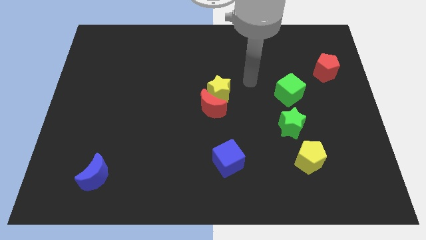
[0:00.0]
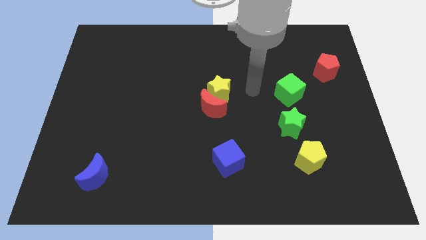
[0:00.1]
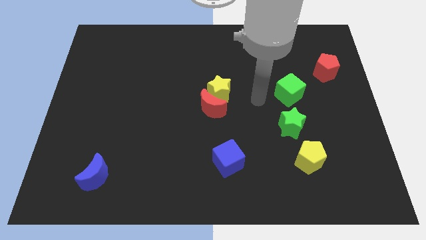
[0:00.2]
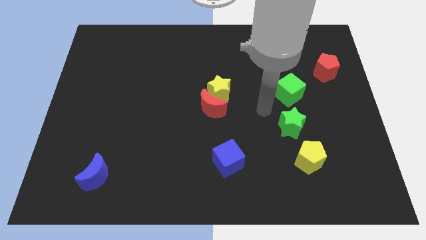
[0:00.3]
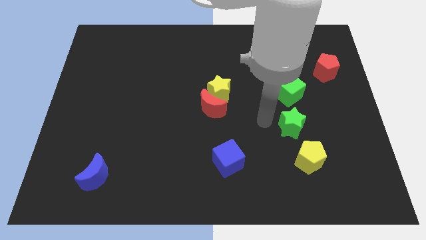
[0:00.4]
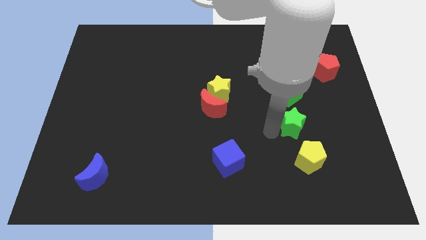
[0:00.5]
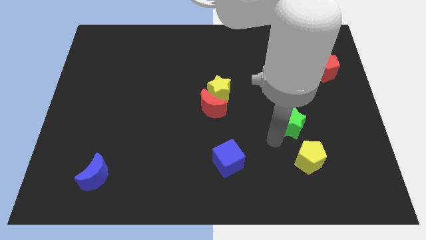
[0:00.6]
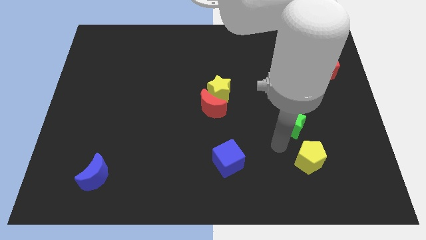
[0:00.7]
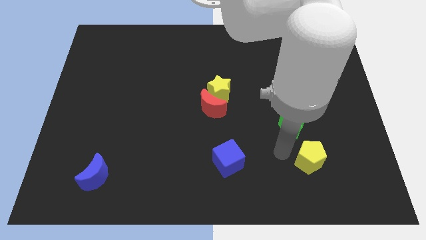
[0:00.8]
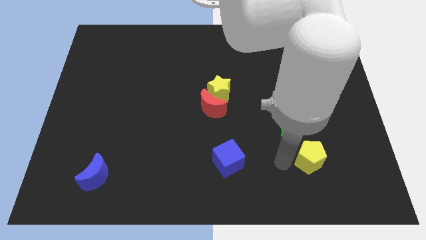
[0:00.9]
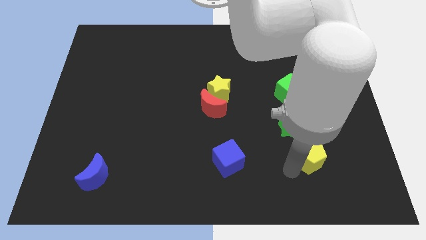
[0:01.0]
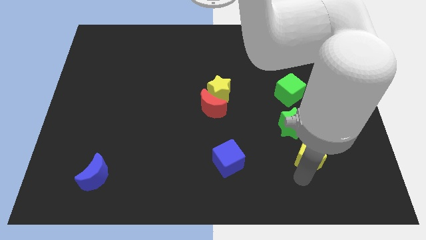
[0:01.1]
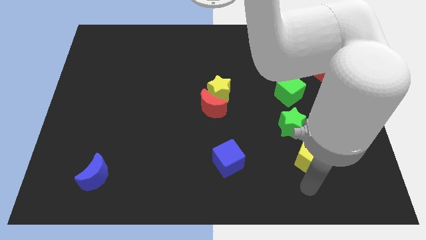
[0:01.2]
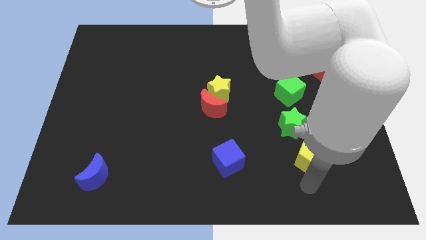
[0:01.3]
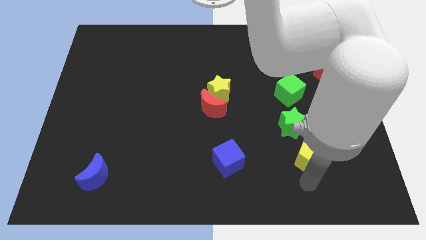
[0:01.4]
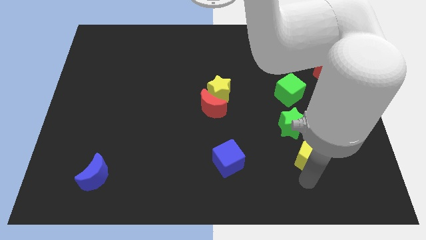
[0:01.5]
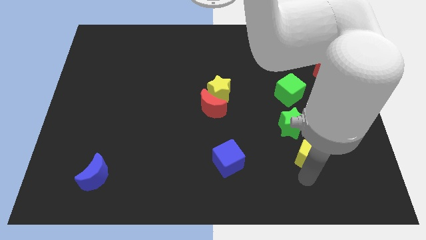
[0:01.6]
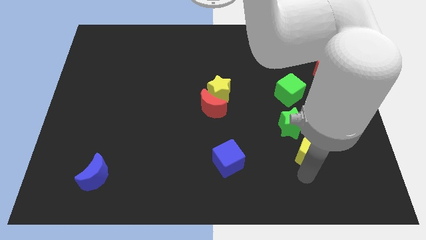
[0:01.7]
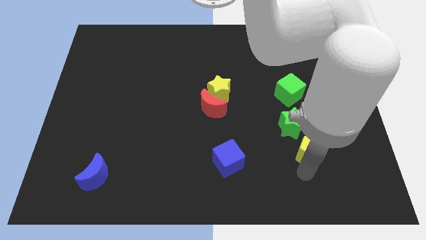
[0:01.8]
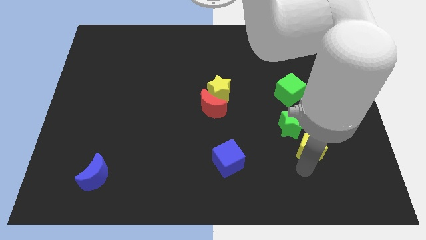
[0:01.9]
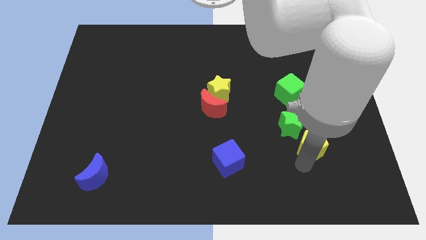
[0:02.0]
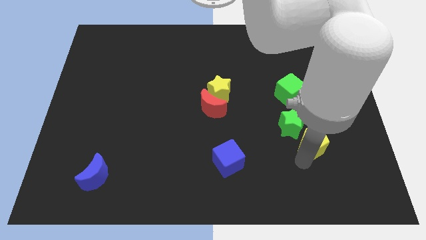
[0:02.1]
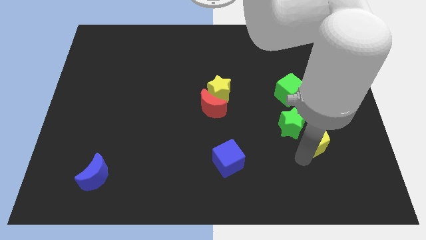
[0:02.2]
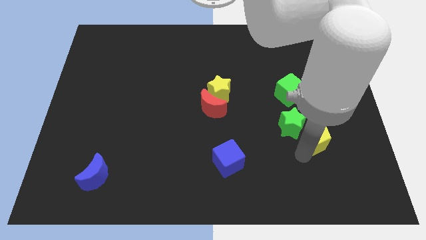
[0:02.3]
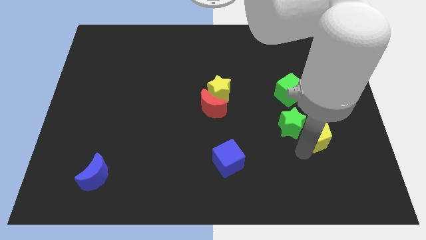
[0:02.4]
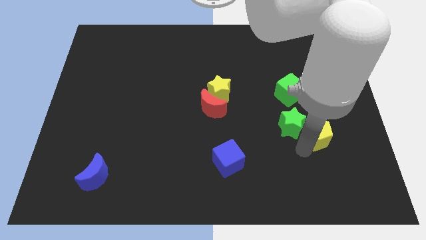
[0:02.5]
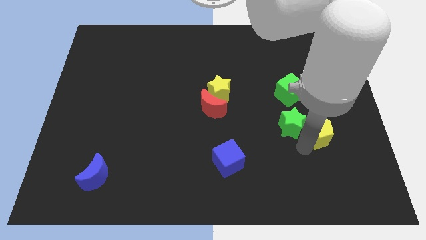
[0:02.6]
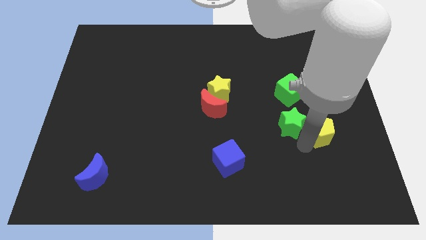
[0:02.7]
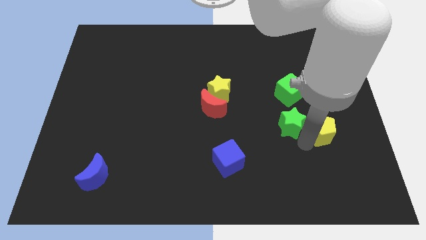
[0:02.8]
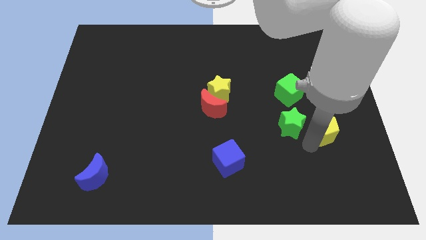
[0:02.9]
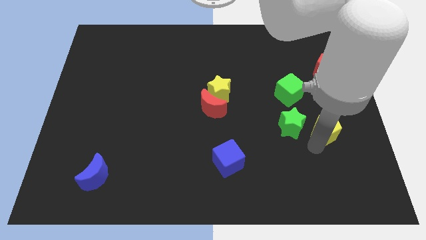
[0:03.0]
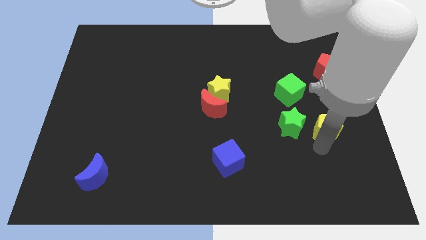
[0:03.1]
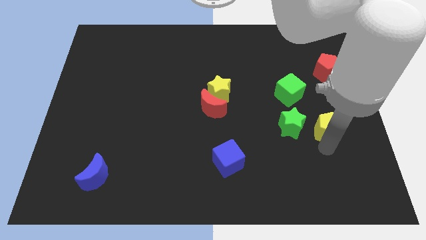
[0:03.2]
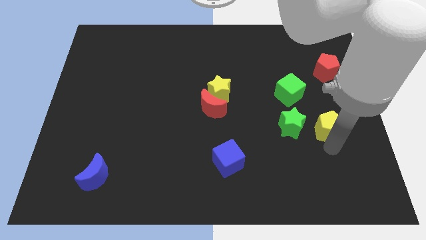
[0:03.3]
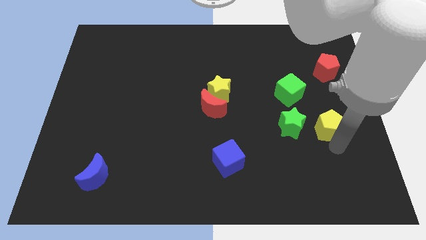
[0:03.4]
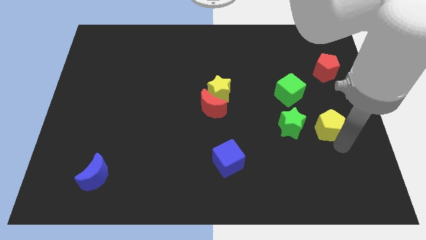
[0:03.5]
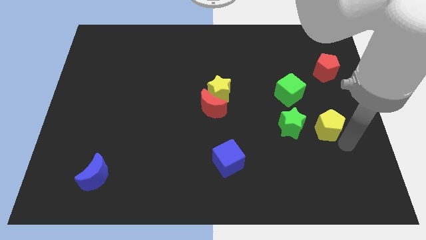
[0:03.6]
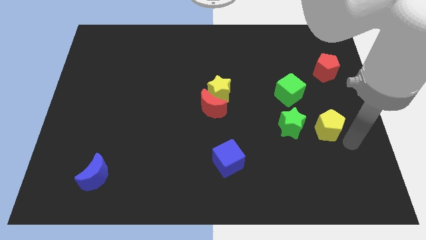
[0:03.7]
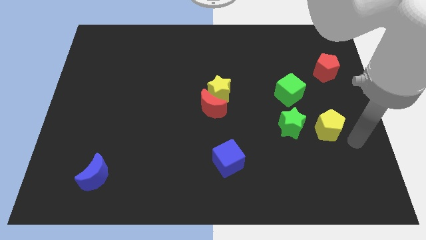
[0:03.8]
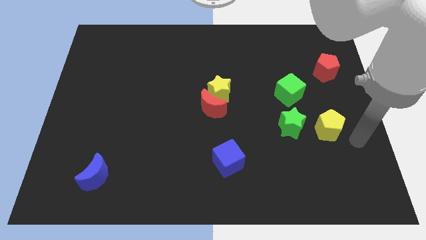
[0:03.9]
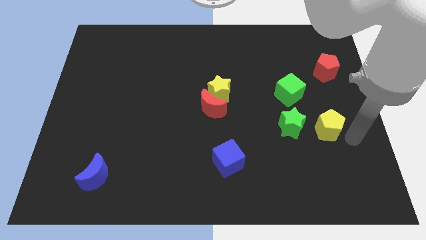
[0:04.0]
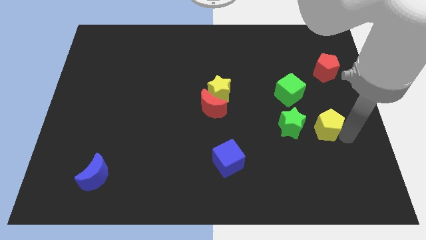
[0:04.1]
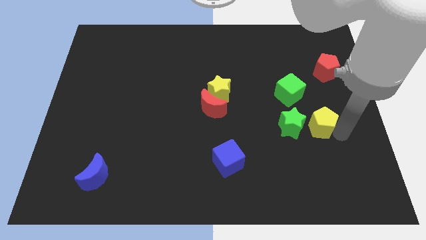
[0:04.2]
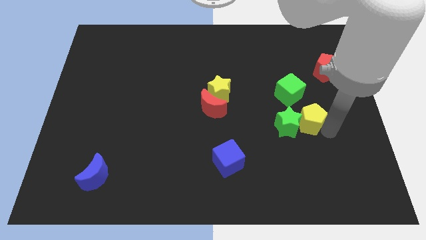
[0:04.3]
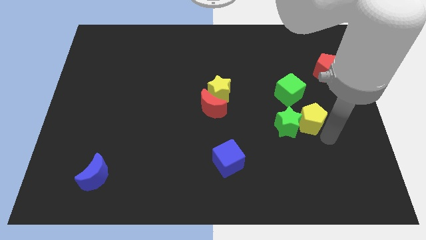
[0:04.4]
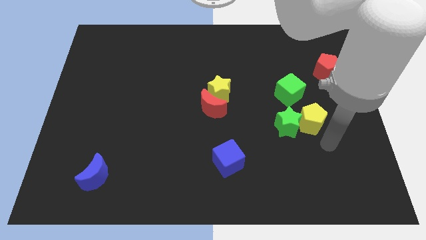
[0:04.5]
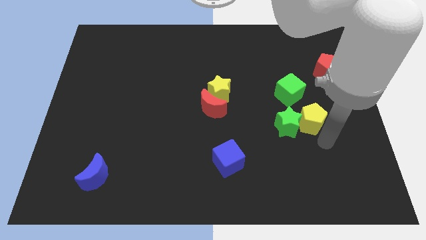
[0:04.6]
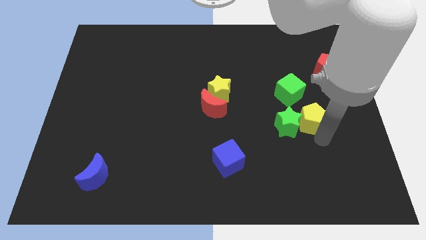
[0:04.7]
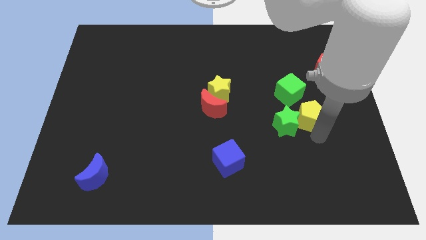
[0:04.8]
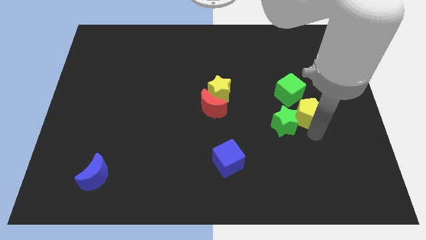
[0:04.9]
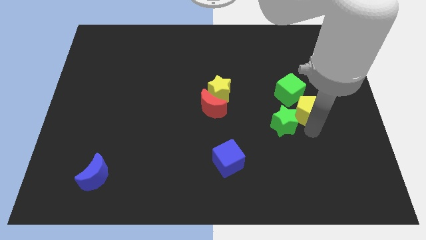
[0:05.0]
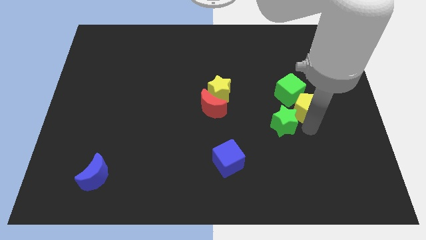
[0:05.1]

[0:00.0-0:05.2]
put the yellow pentagon next to the green cube

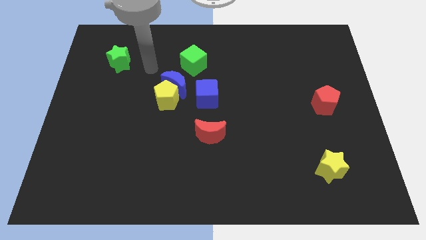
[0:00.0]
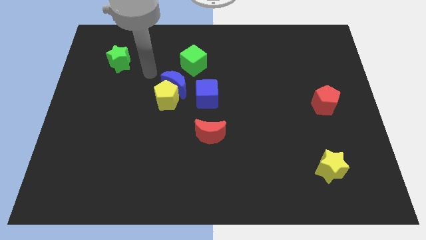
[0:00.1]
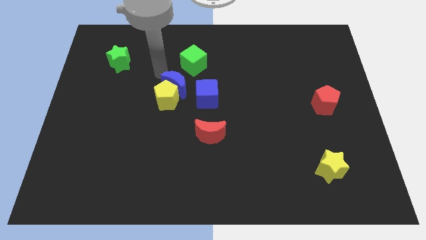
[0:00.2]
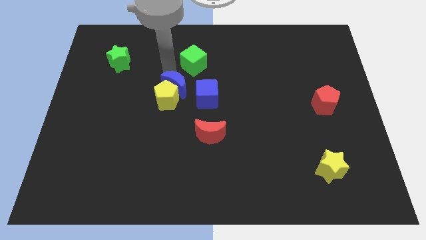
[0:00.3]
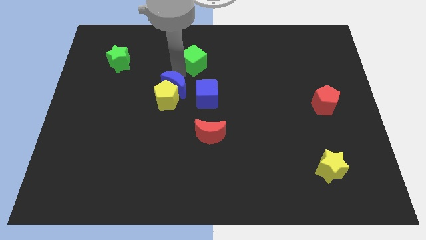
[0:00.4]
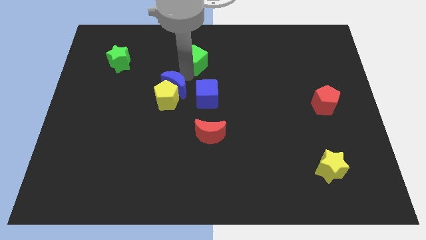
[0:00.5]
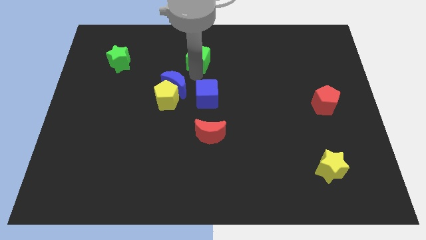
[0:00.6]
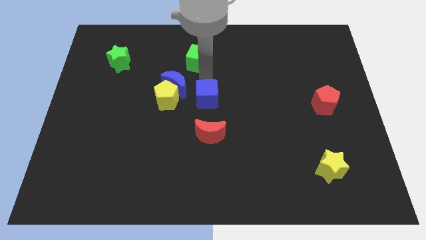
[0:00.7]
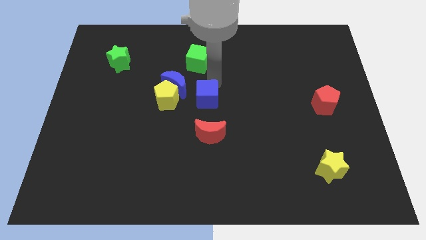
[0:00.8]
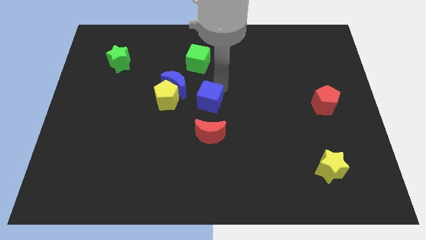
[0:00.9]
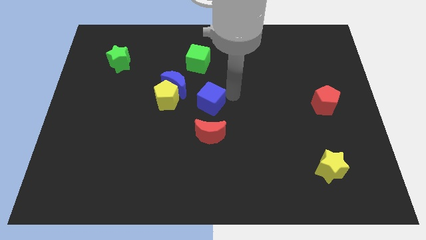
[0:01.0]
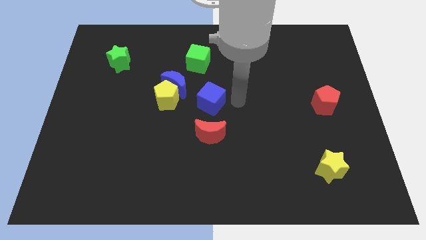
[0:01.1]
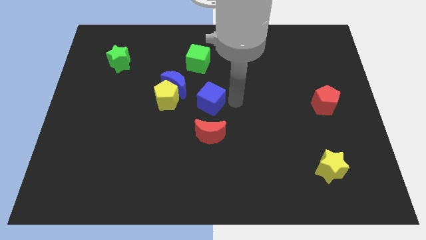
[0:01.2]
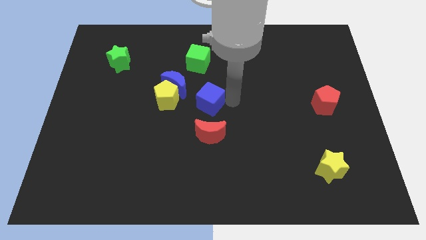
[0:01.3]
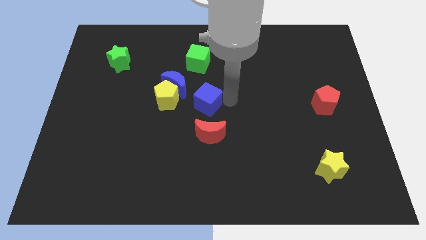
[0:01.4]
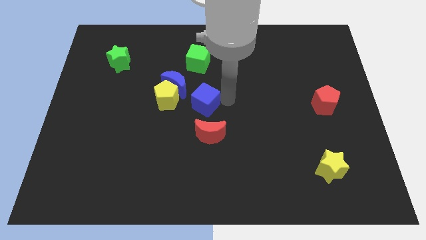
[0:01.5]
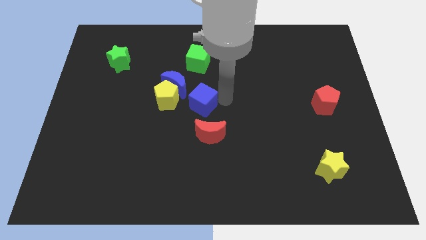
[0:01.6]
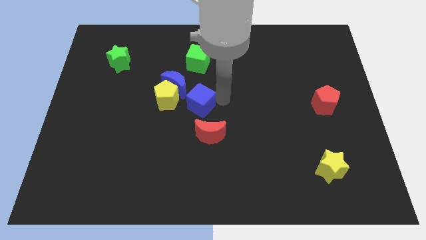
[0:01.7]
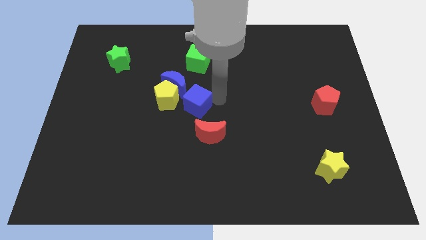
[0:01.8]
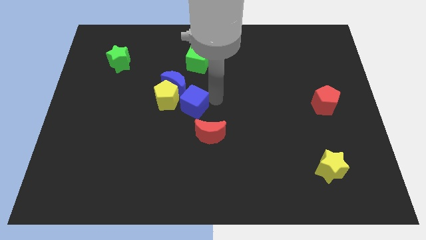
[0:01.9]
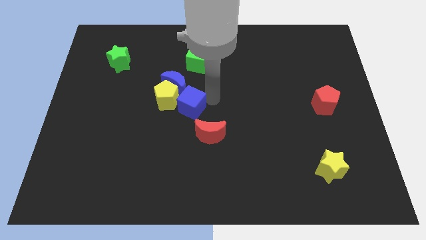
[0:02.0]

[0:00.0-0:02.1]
move the blue cube to the yellow pentagon

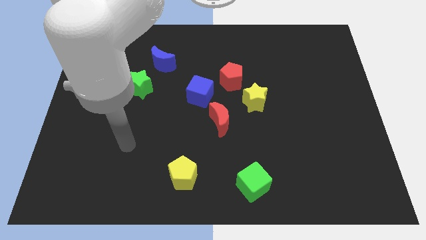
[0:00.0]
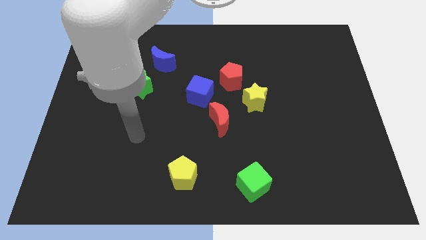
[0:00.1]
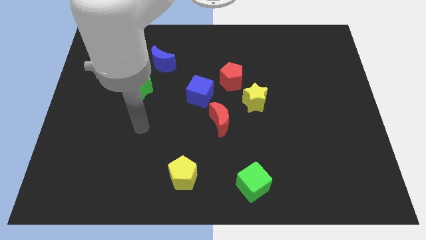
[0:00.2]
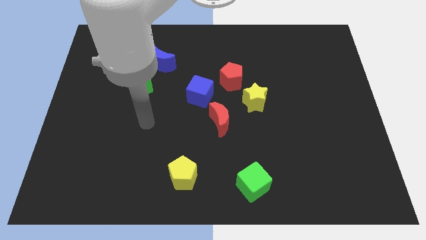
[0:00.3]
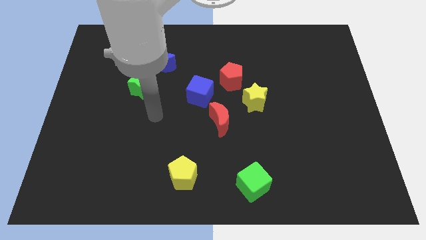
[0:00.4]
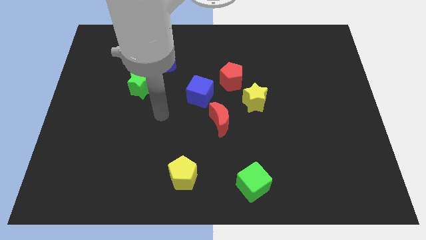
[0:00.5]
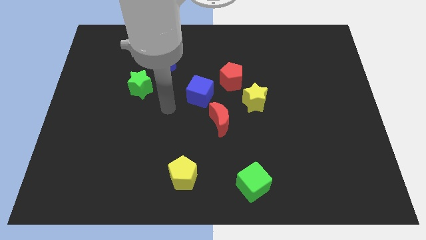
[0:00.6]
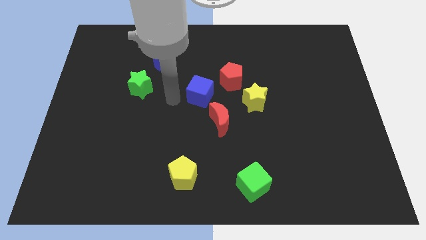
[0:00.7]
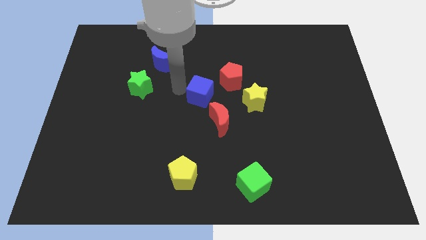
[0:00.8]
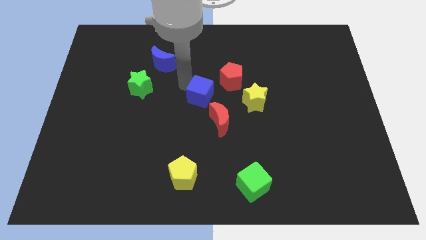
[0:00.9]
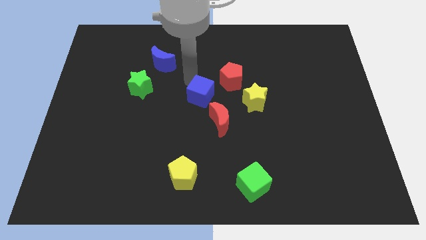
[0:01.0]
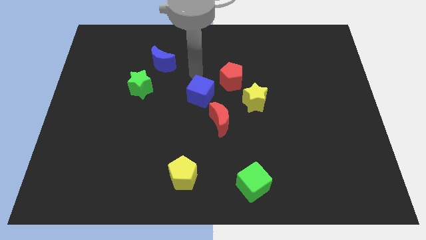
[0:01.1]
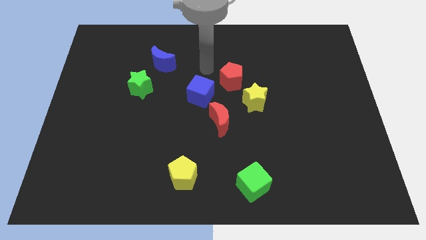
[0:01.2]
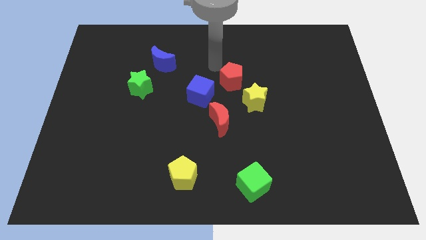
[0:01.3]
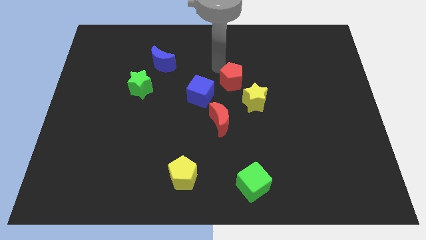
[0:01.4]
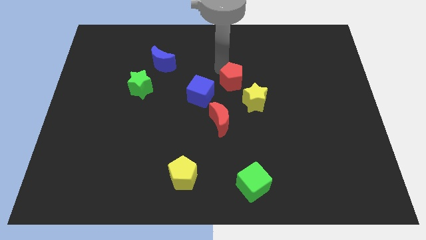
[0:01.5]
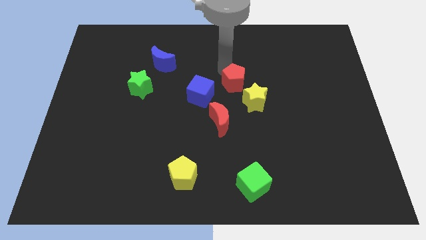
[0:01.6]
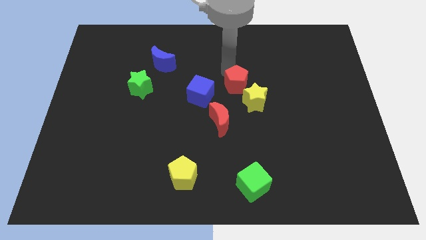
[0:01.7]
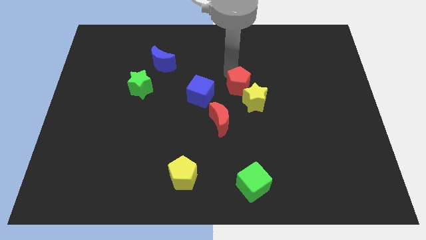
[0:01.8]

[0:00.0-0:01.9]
push the red pentagon next to the yellow star
